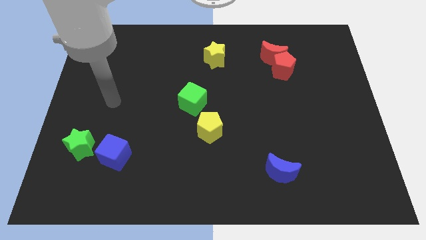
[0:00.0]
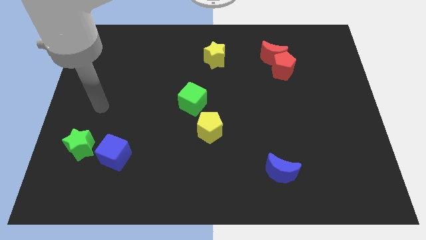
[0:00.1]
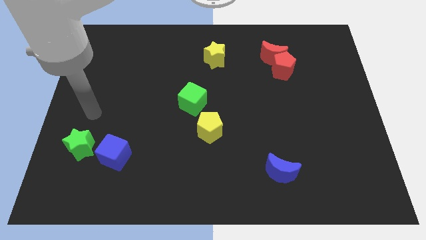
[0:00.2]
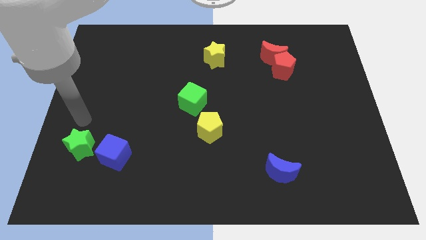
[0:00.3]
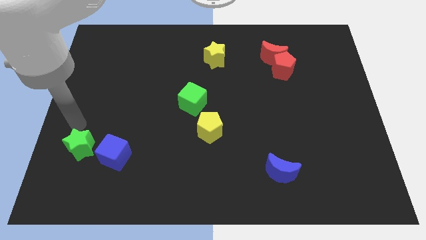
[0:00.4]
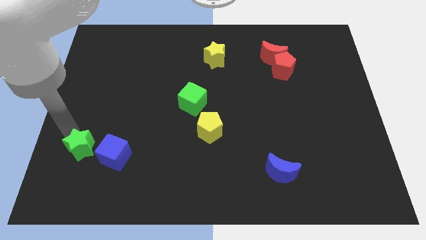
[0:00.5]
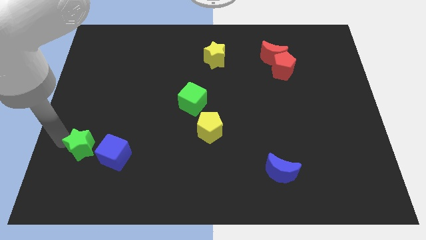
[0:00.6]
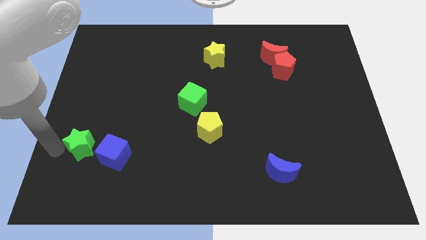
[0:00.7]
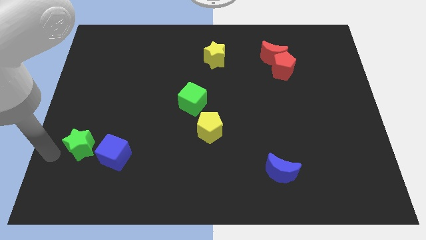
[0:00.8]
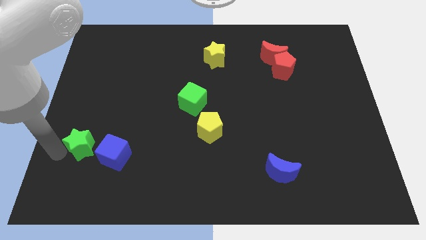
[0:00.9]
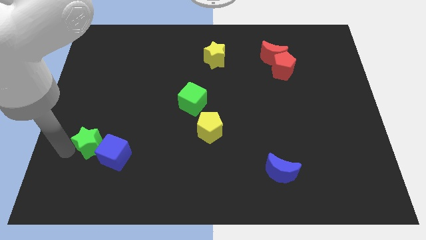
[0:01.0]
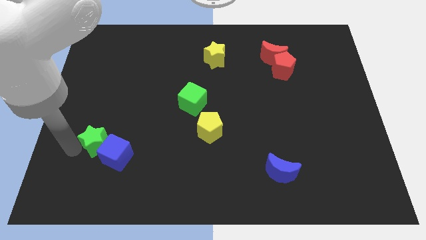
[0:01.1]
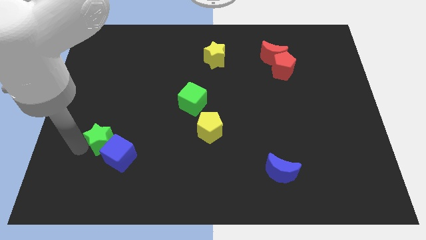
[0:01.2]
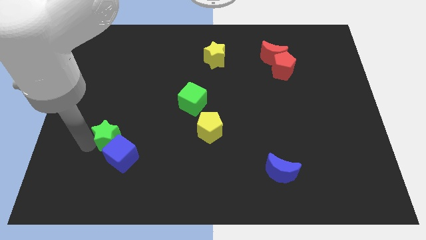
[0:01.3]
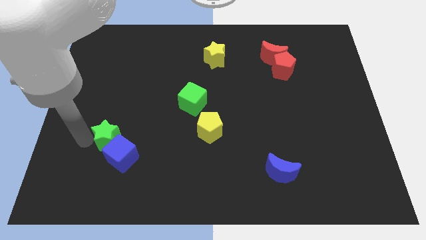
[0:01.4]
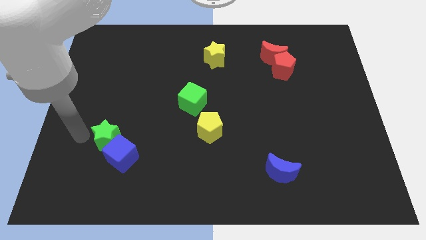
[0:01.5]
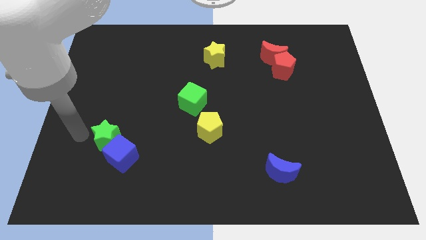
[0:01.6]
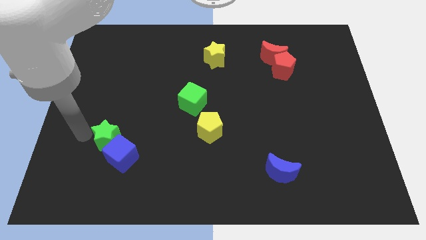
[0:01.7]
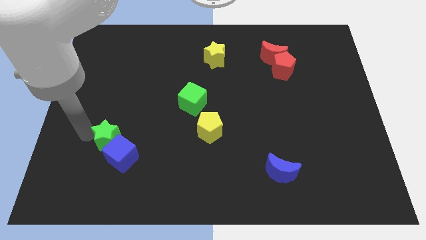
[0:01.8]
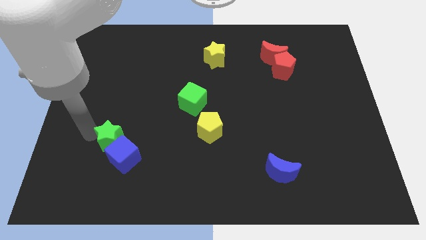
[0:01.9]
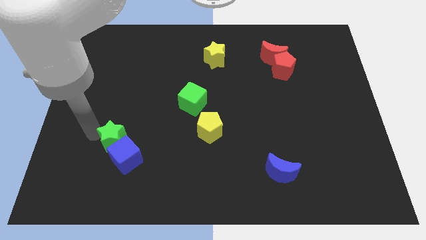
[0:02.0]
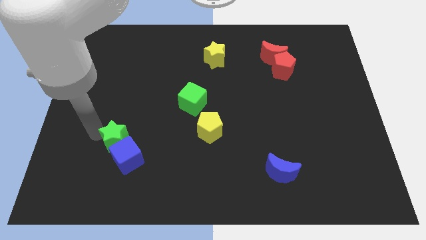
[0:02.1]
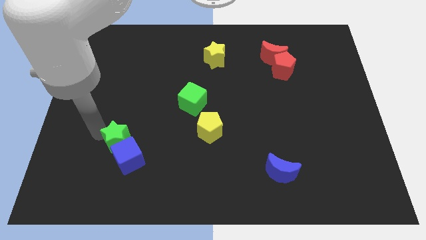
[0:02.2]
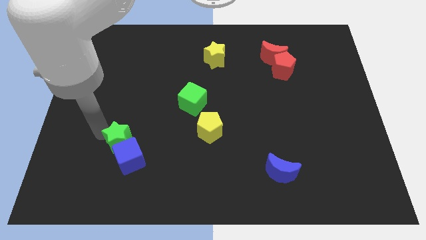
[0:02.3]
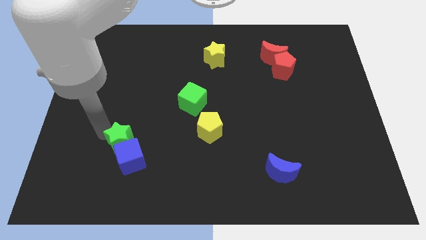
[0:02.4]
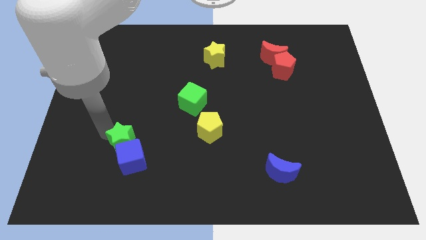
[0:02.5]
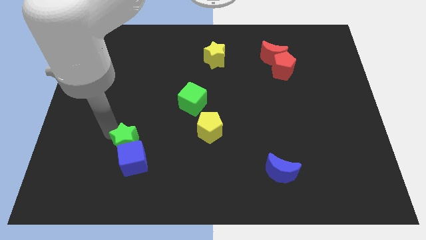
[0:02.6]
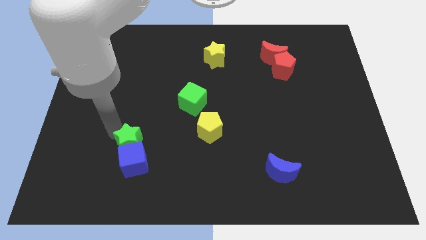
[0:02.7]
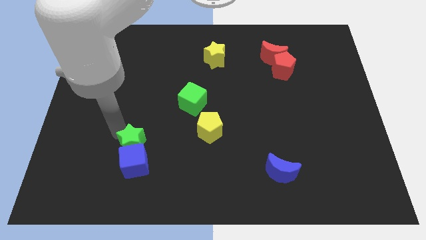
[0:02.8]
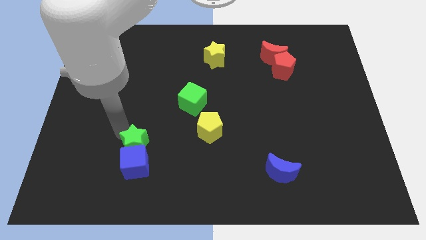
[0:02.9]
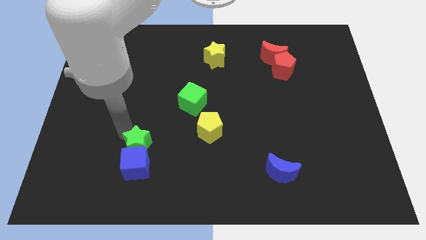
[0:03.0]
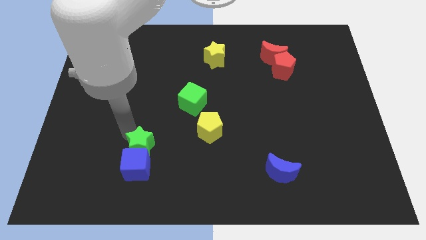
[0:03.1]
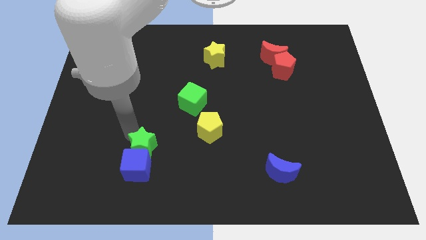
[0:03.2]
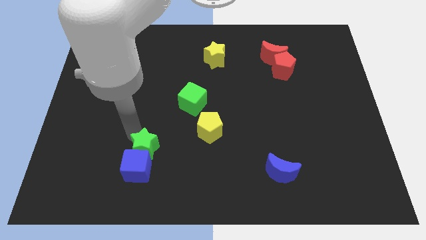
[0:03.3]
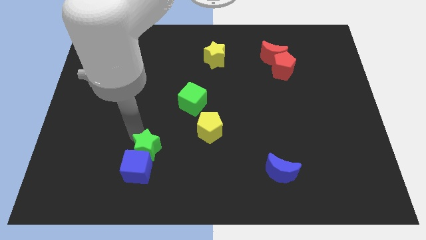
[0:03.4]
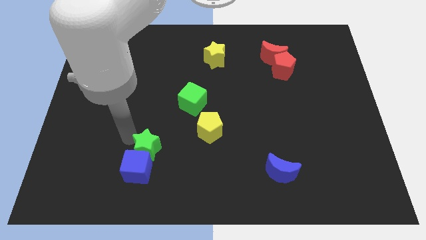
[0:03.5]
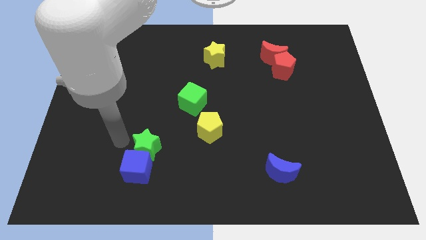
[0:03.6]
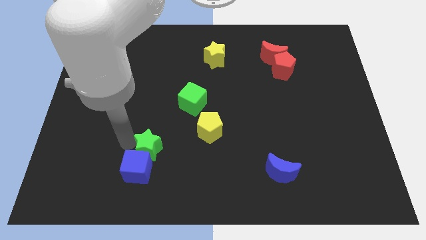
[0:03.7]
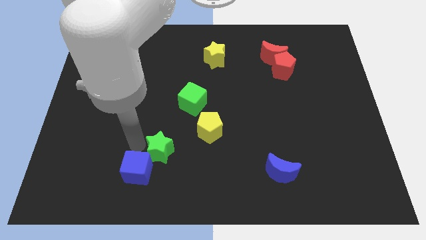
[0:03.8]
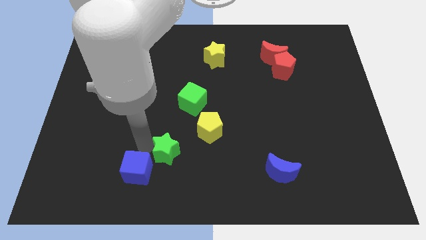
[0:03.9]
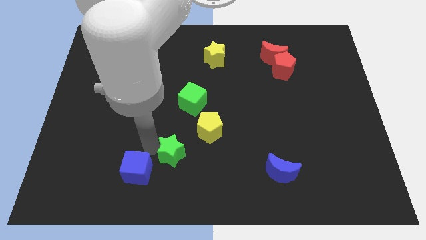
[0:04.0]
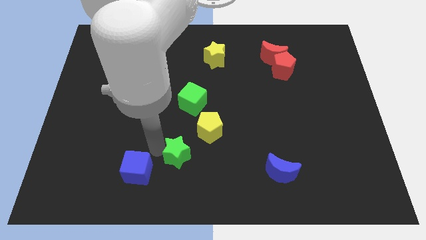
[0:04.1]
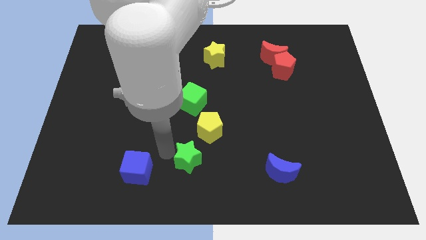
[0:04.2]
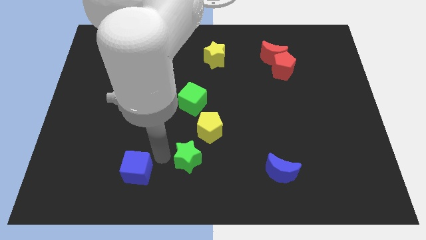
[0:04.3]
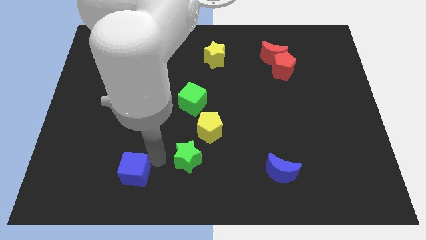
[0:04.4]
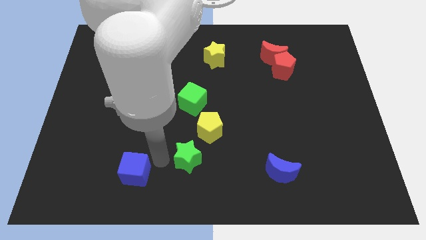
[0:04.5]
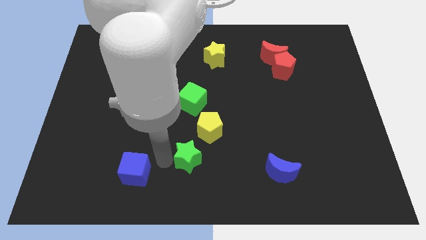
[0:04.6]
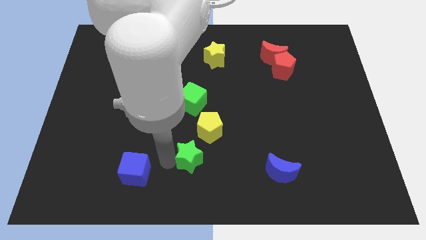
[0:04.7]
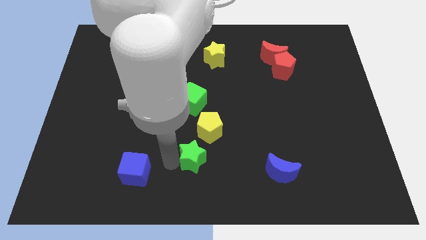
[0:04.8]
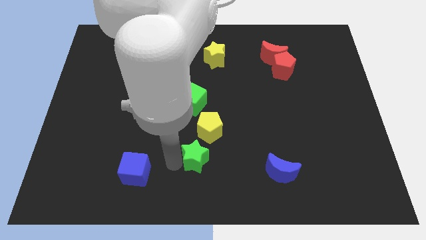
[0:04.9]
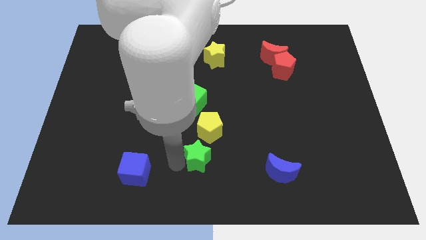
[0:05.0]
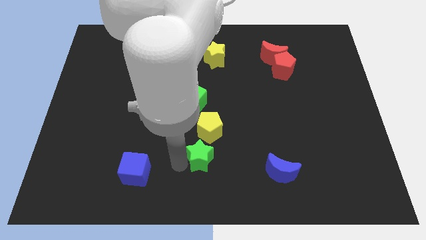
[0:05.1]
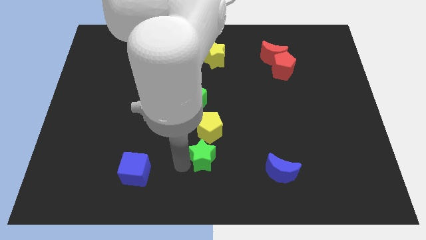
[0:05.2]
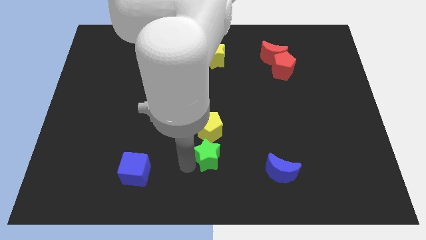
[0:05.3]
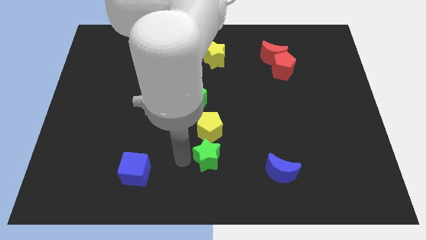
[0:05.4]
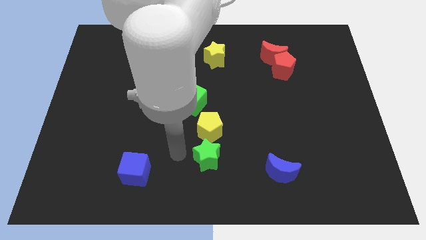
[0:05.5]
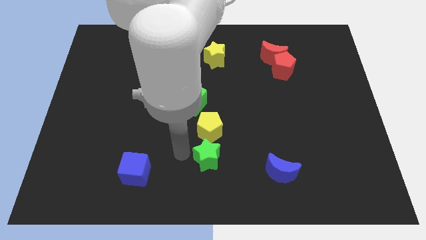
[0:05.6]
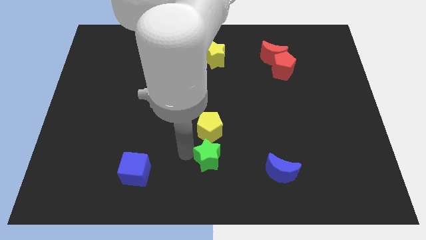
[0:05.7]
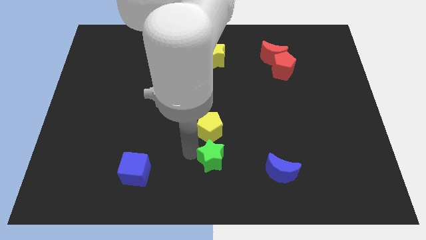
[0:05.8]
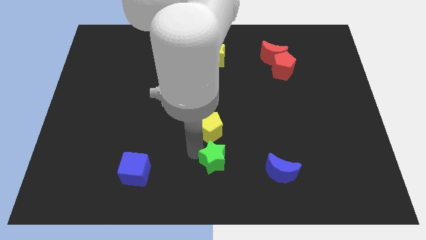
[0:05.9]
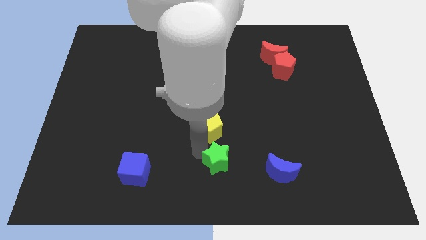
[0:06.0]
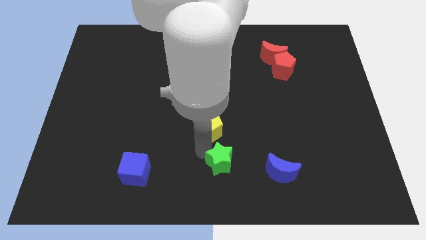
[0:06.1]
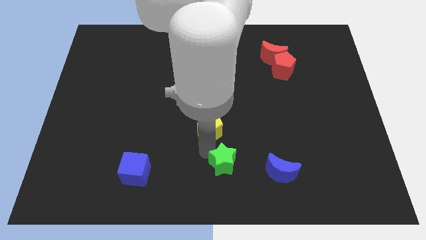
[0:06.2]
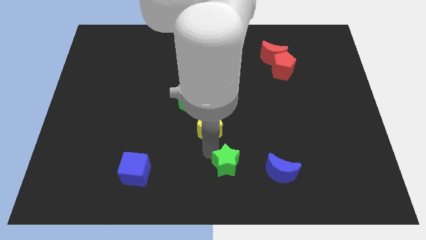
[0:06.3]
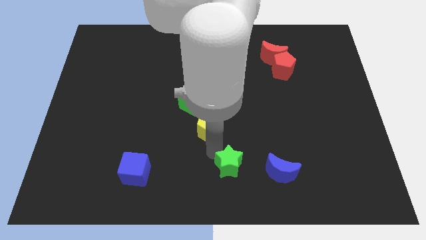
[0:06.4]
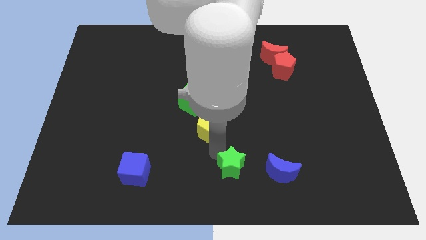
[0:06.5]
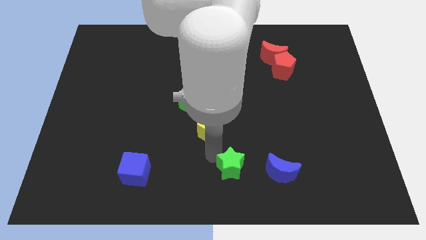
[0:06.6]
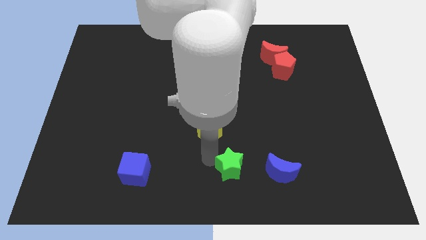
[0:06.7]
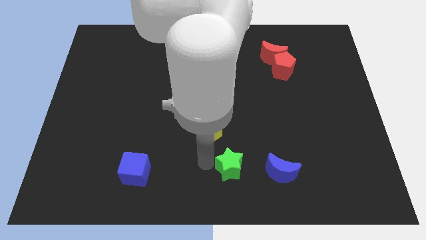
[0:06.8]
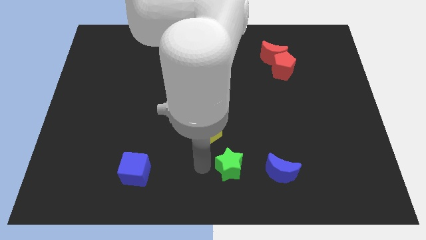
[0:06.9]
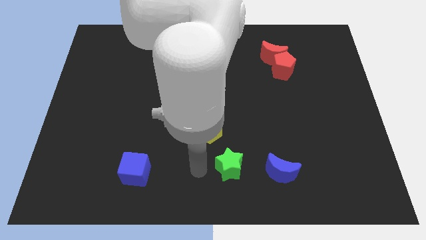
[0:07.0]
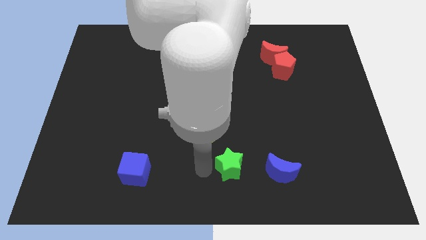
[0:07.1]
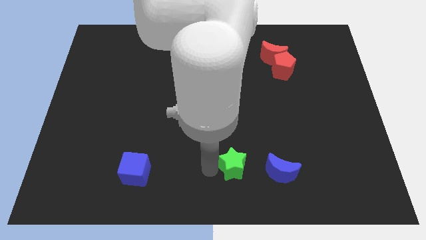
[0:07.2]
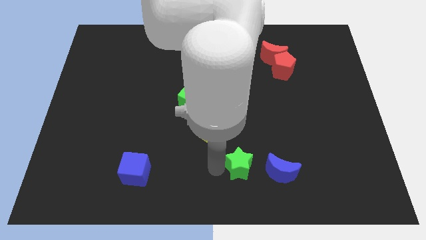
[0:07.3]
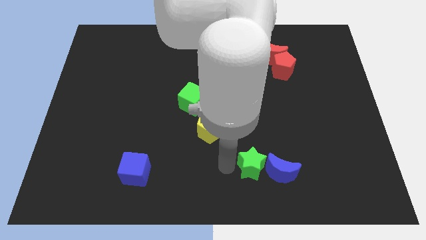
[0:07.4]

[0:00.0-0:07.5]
slide the green star close to the blue moon
